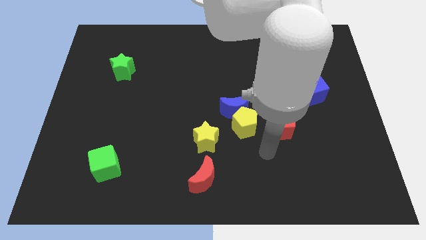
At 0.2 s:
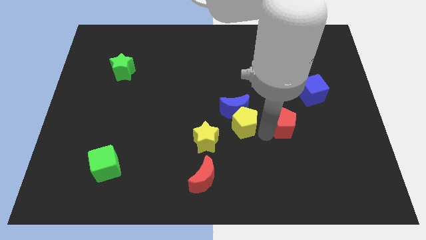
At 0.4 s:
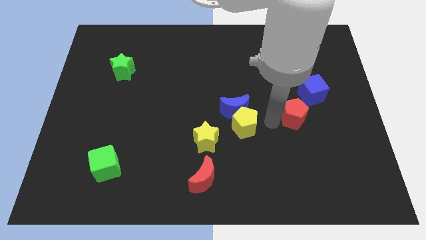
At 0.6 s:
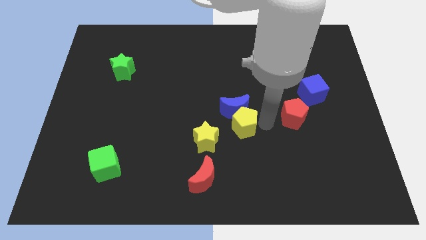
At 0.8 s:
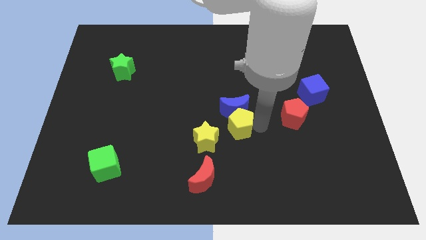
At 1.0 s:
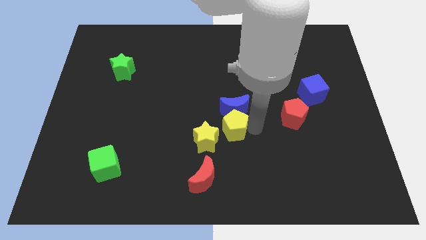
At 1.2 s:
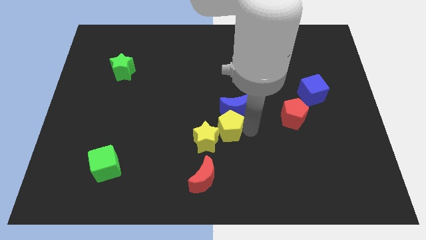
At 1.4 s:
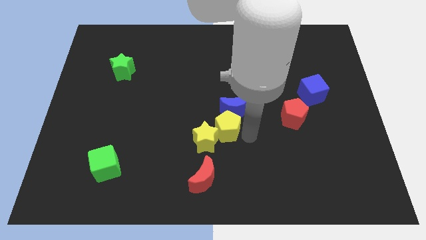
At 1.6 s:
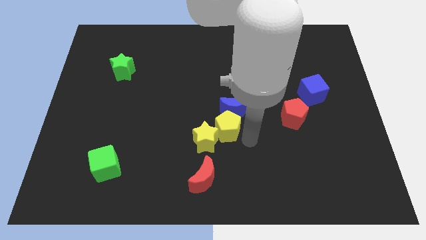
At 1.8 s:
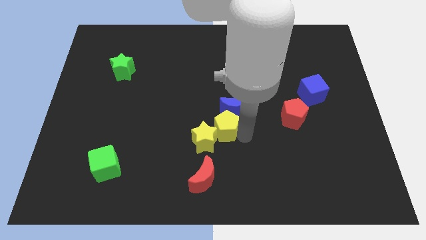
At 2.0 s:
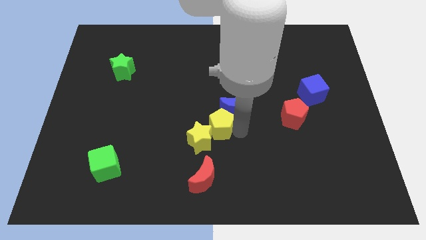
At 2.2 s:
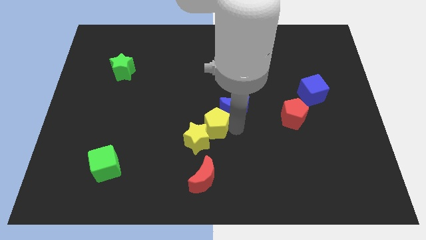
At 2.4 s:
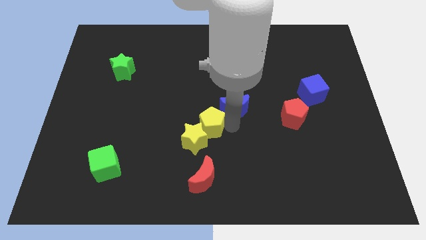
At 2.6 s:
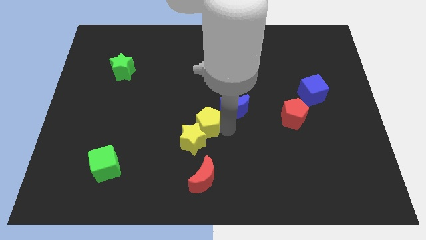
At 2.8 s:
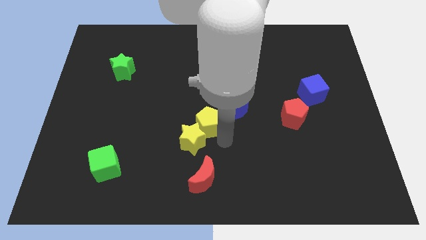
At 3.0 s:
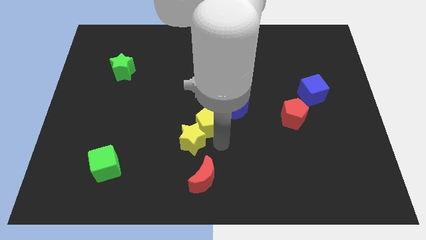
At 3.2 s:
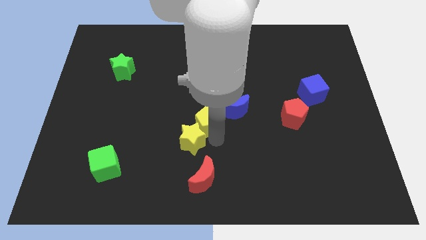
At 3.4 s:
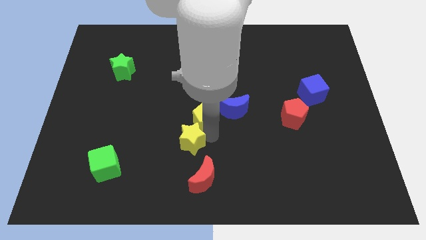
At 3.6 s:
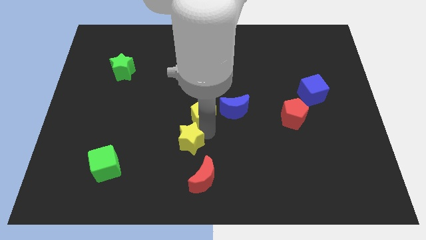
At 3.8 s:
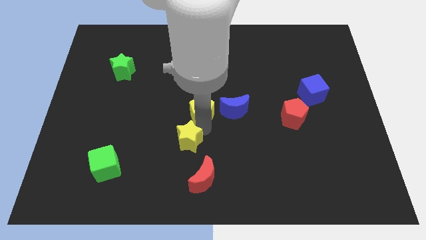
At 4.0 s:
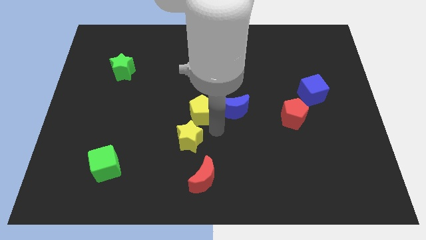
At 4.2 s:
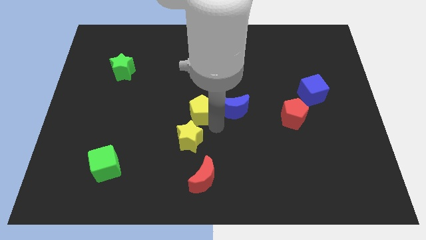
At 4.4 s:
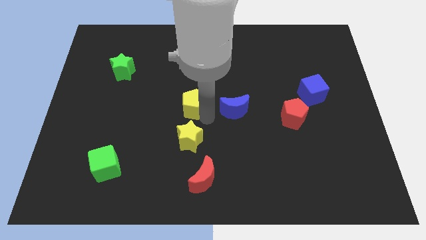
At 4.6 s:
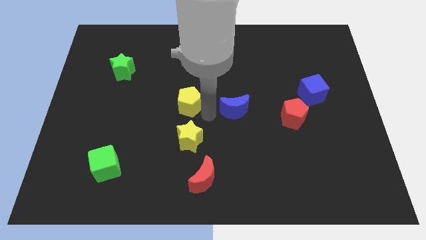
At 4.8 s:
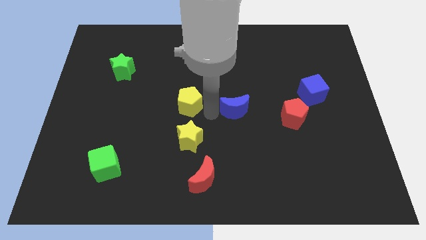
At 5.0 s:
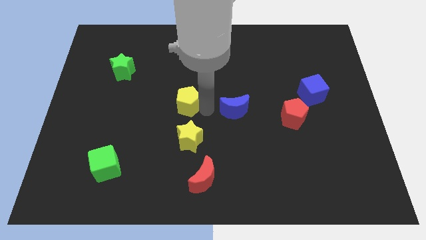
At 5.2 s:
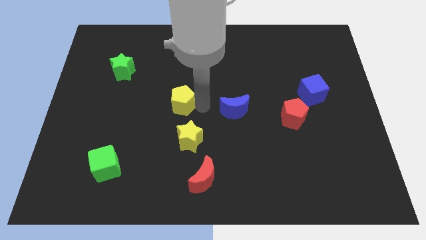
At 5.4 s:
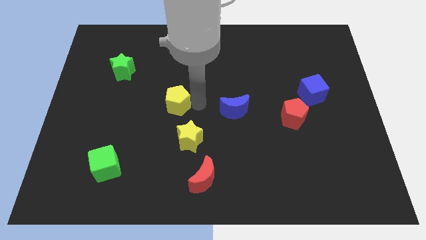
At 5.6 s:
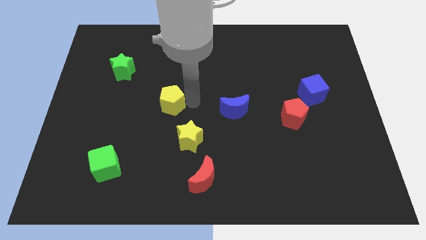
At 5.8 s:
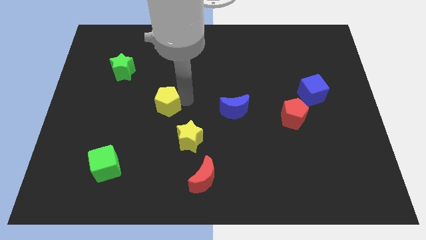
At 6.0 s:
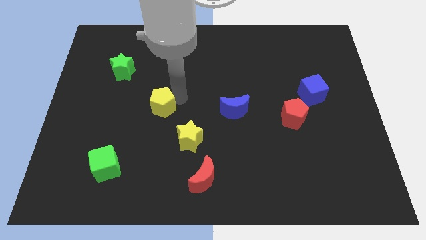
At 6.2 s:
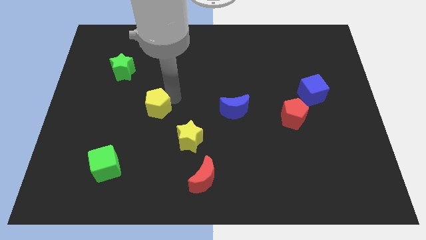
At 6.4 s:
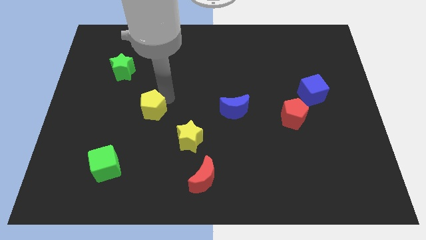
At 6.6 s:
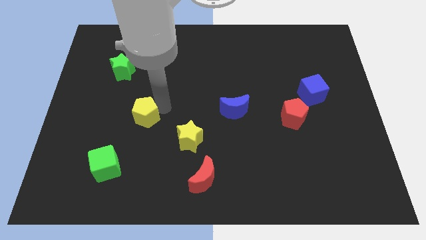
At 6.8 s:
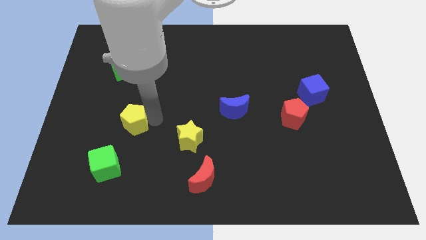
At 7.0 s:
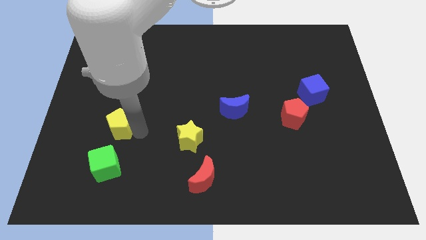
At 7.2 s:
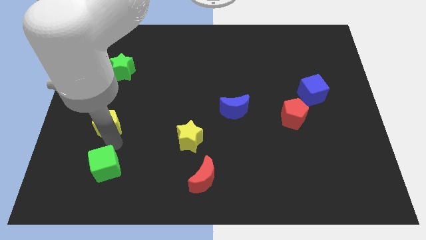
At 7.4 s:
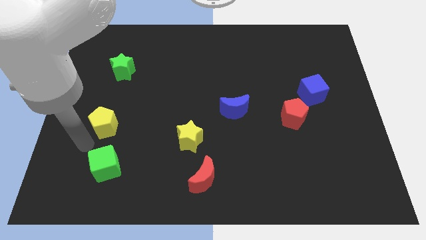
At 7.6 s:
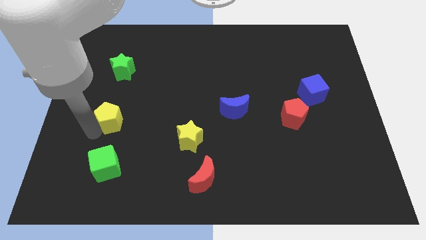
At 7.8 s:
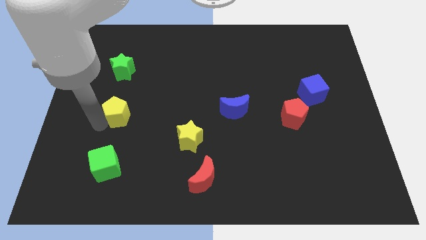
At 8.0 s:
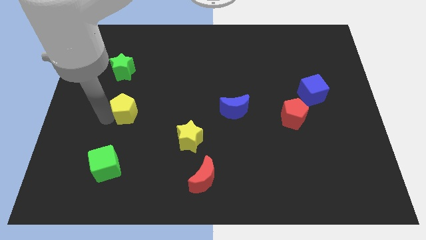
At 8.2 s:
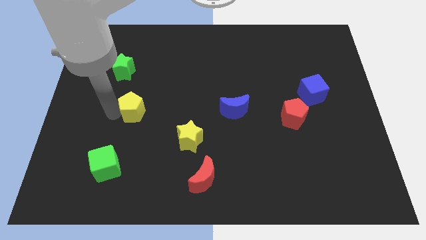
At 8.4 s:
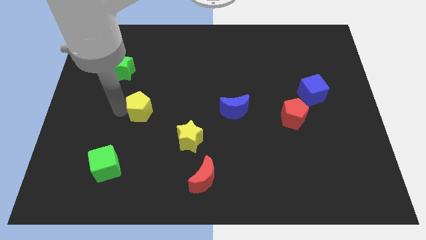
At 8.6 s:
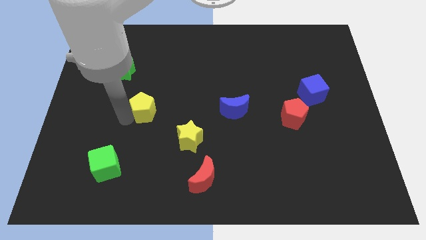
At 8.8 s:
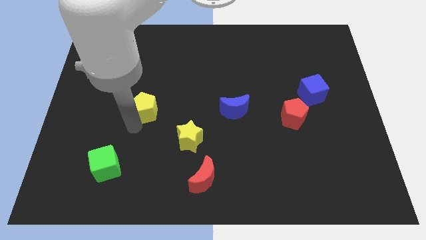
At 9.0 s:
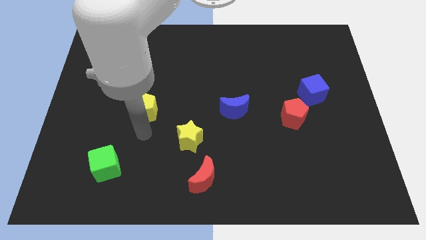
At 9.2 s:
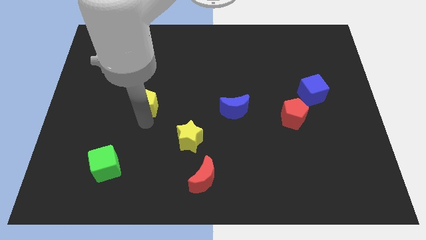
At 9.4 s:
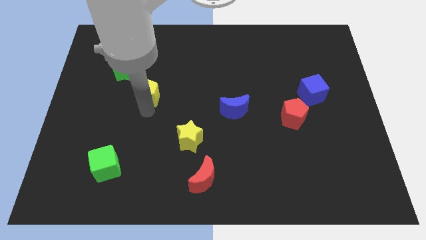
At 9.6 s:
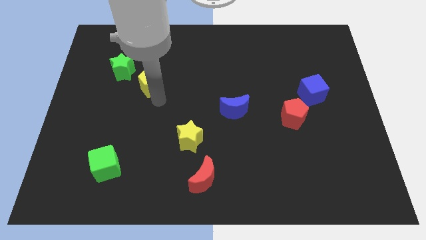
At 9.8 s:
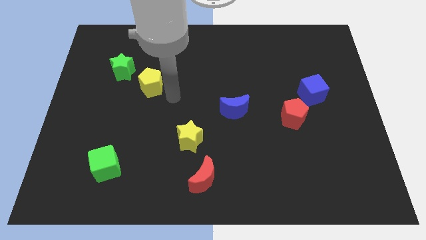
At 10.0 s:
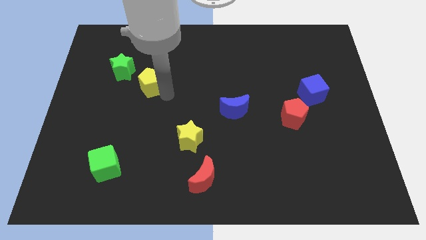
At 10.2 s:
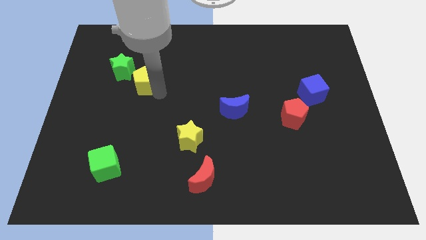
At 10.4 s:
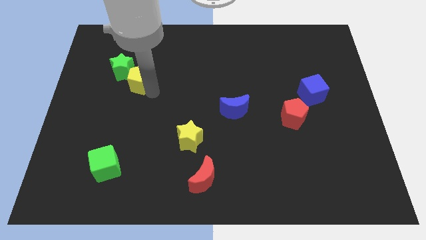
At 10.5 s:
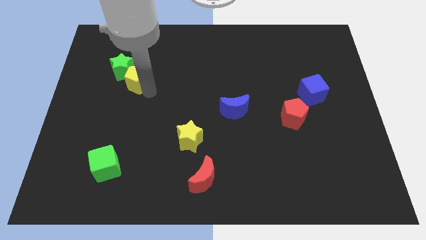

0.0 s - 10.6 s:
put the yellow pentagon towards the green star
